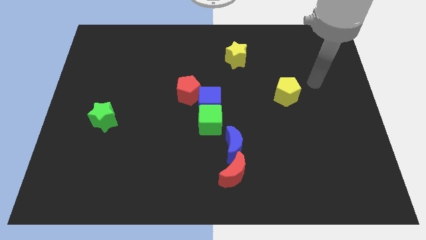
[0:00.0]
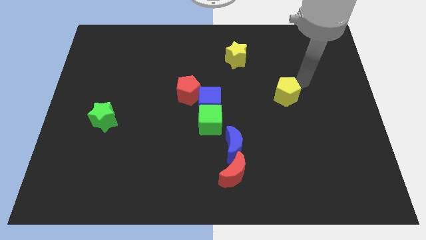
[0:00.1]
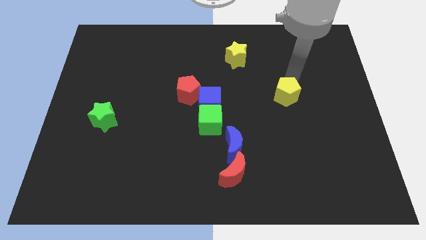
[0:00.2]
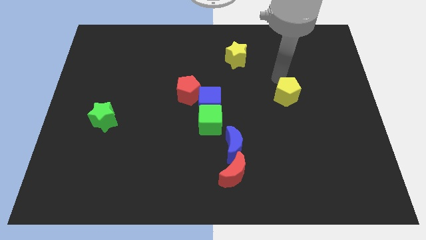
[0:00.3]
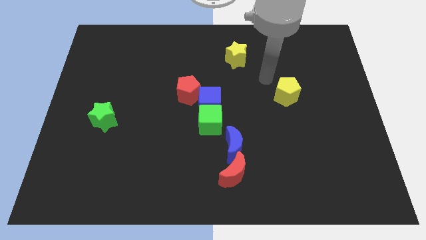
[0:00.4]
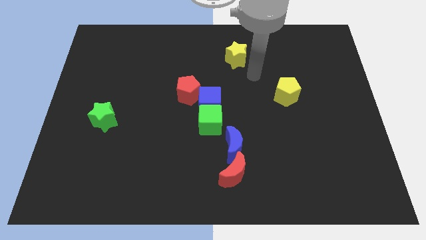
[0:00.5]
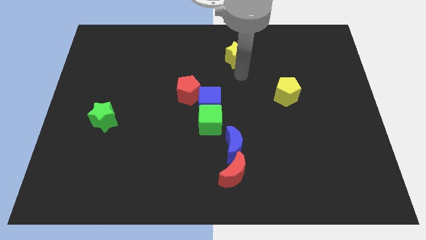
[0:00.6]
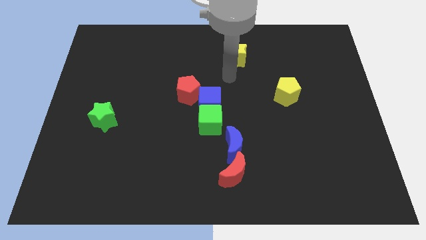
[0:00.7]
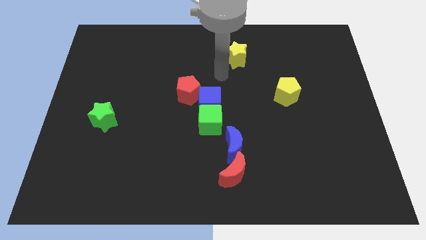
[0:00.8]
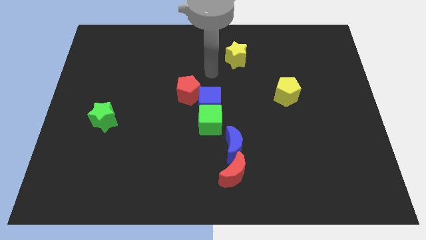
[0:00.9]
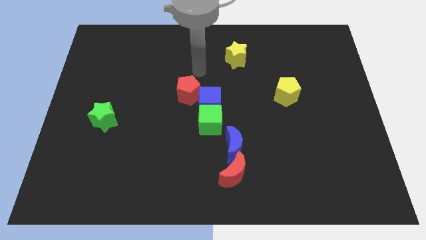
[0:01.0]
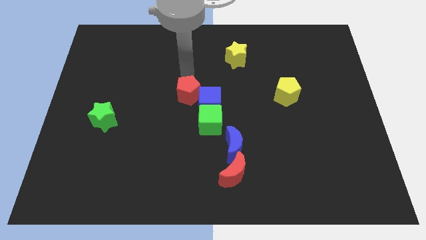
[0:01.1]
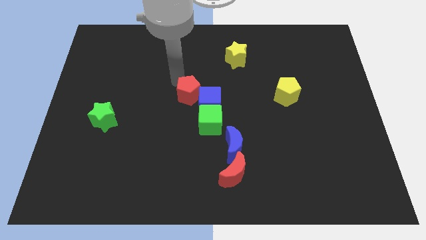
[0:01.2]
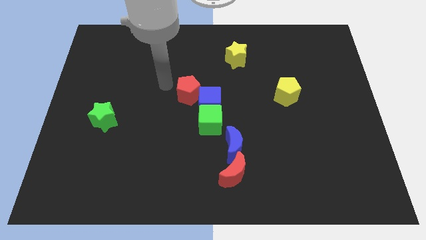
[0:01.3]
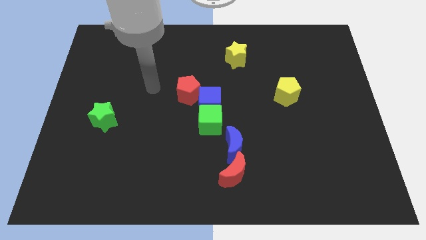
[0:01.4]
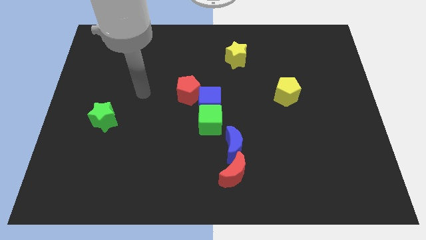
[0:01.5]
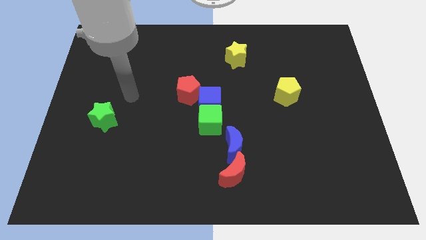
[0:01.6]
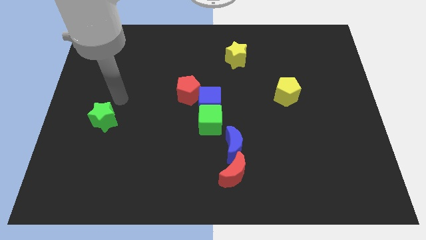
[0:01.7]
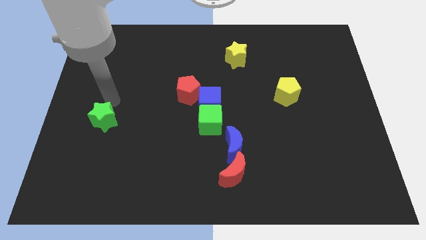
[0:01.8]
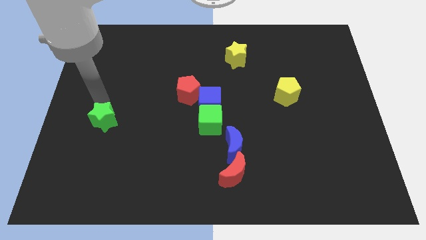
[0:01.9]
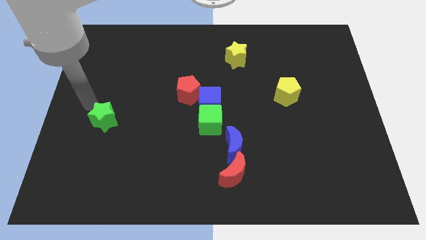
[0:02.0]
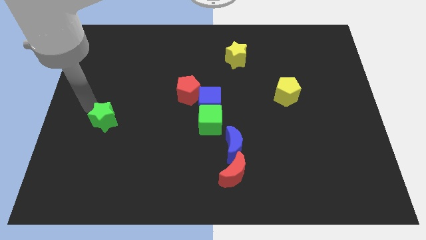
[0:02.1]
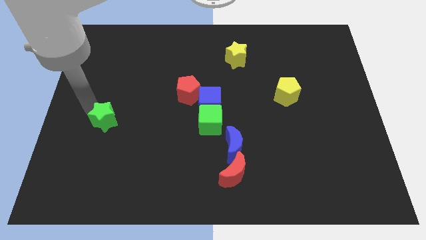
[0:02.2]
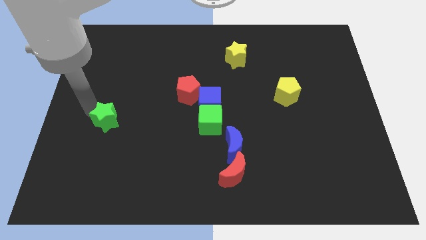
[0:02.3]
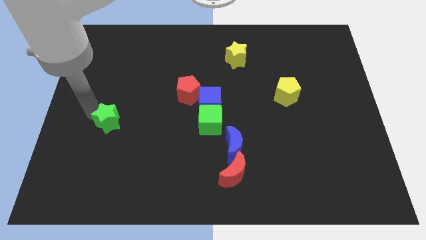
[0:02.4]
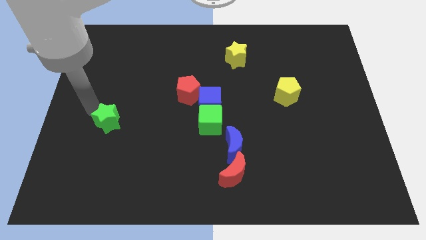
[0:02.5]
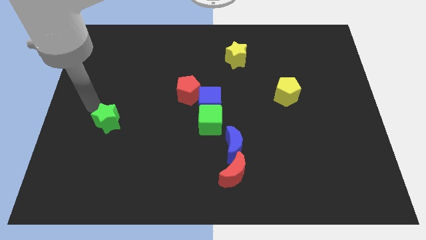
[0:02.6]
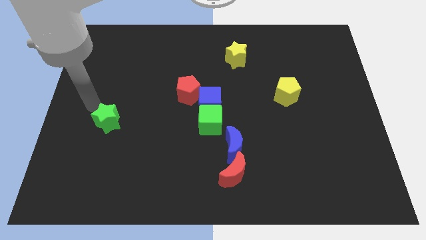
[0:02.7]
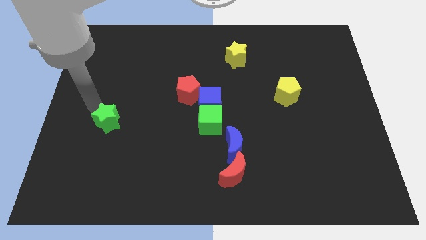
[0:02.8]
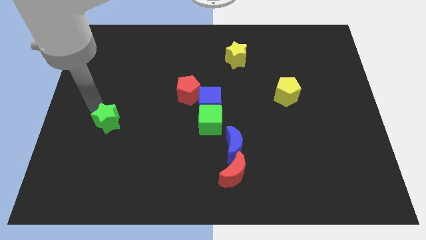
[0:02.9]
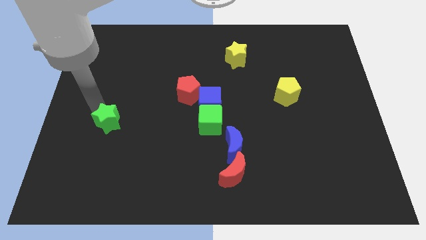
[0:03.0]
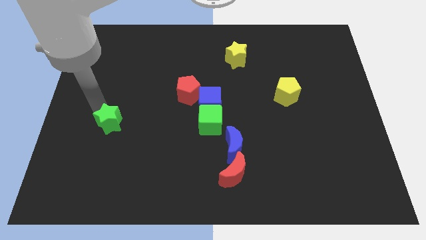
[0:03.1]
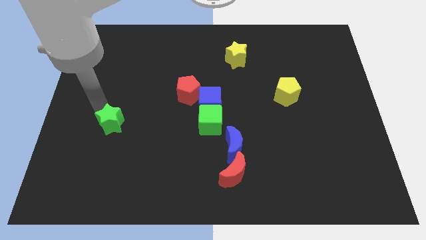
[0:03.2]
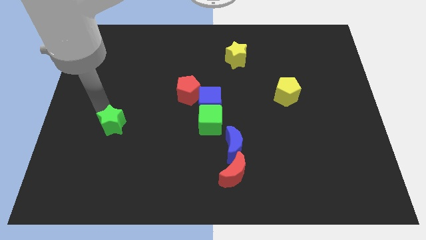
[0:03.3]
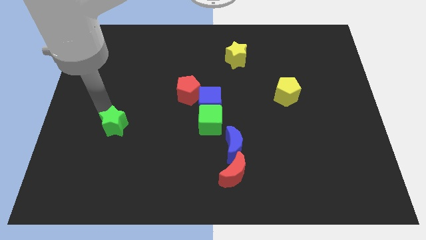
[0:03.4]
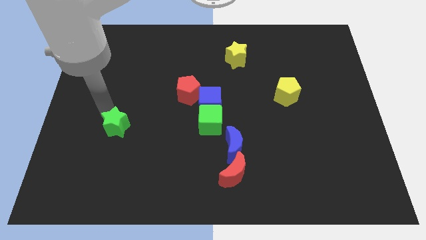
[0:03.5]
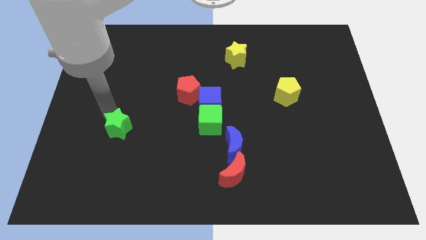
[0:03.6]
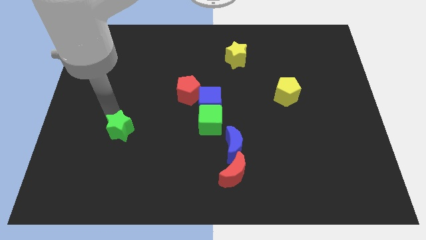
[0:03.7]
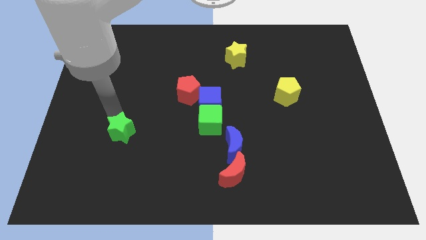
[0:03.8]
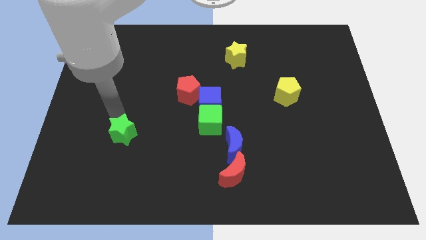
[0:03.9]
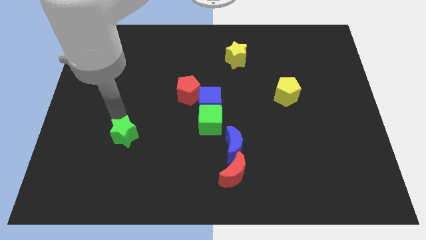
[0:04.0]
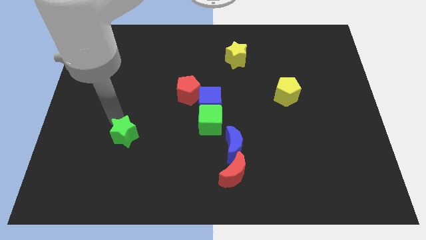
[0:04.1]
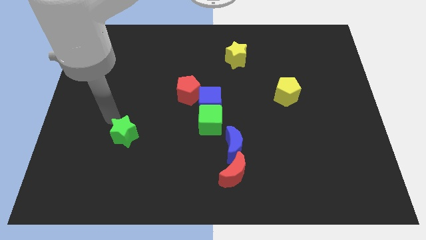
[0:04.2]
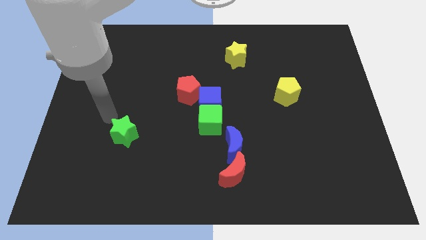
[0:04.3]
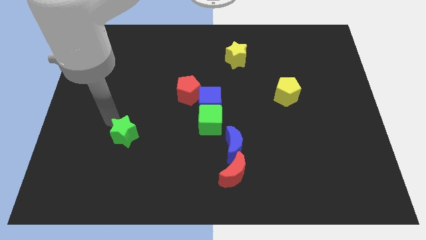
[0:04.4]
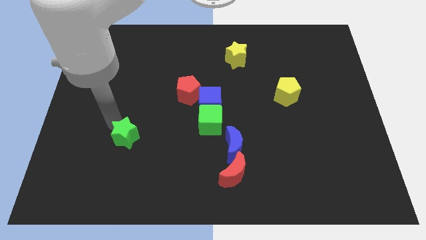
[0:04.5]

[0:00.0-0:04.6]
slide the green star downwards and then to the right a little bit

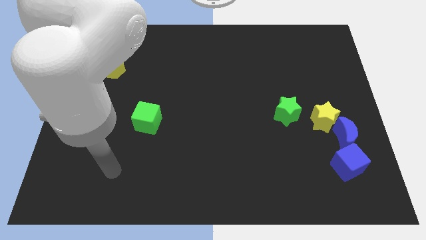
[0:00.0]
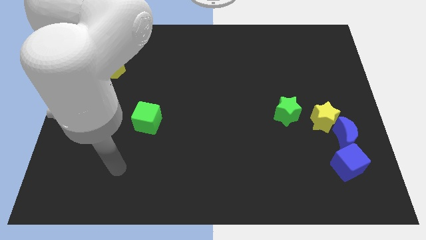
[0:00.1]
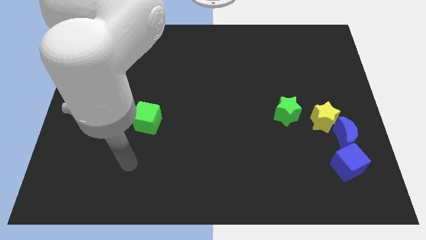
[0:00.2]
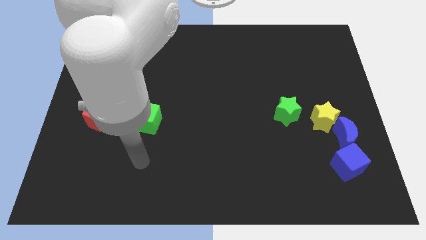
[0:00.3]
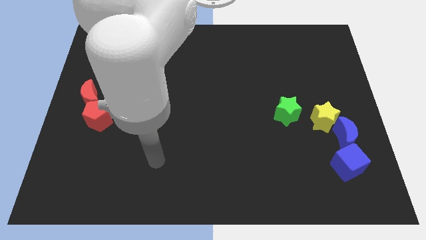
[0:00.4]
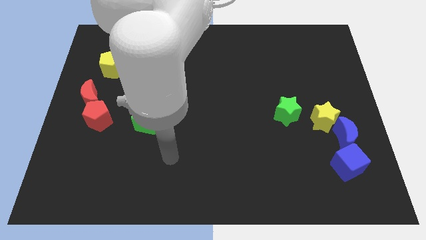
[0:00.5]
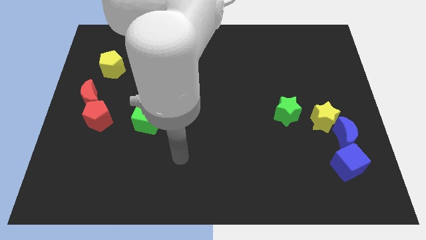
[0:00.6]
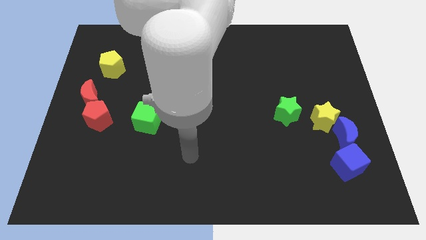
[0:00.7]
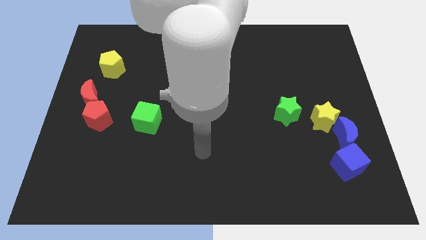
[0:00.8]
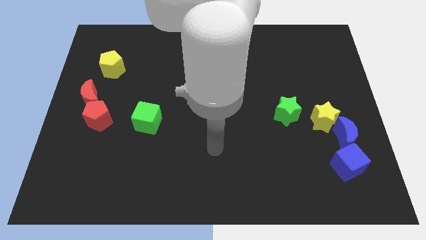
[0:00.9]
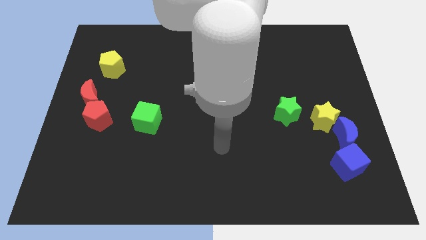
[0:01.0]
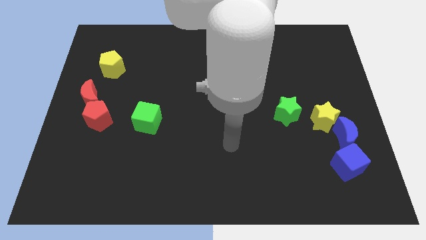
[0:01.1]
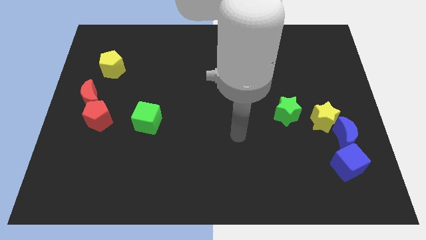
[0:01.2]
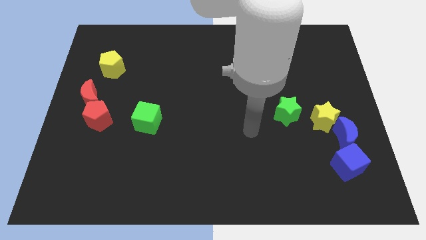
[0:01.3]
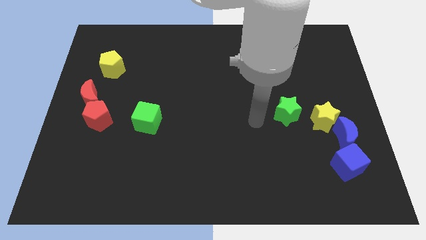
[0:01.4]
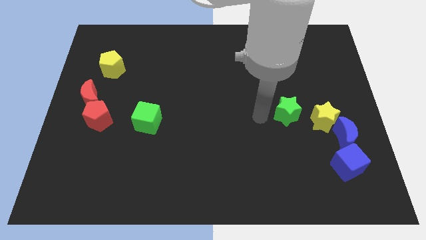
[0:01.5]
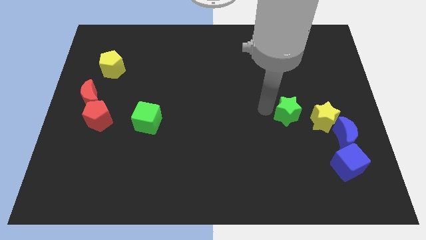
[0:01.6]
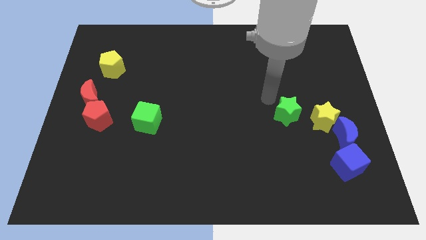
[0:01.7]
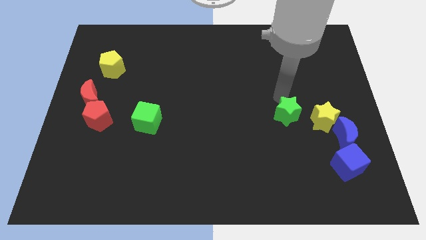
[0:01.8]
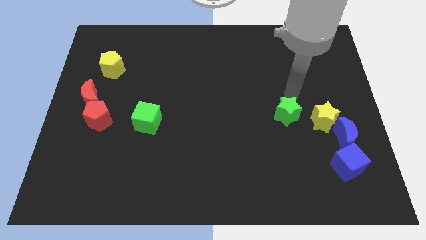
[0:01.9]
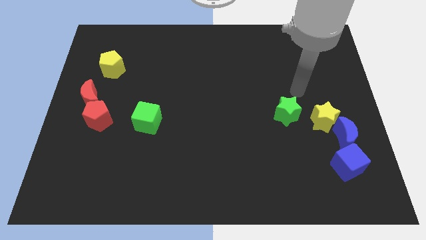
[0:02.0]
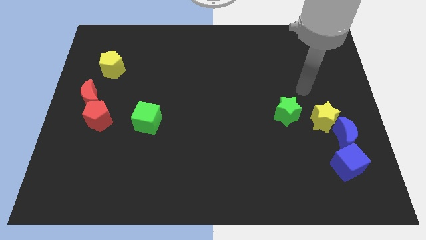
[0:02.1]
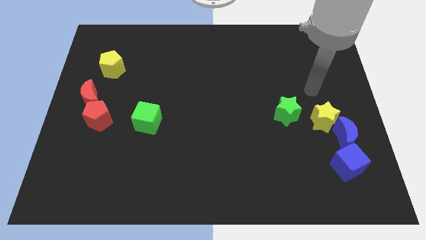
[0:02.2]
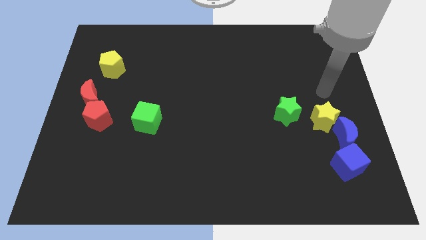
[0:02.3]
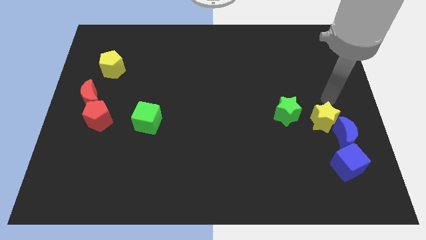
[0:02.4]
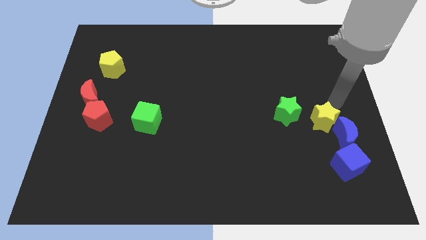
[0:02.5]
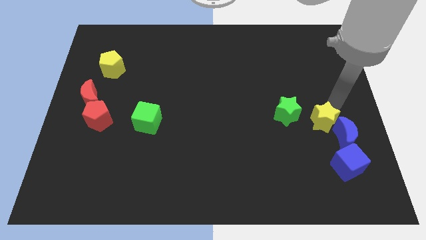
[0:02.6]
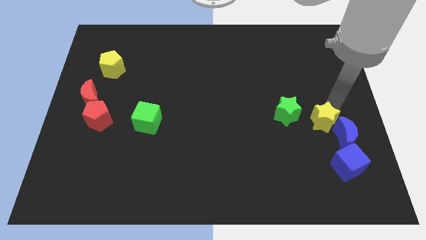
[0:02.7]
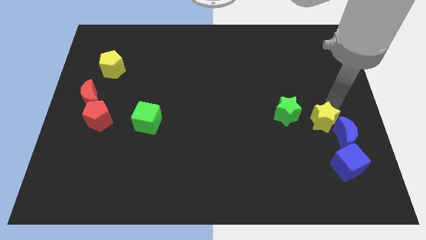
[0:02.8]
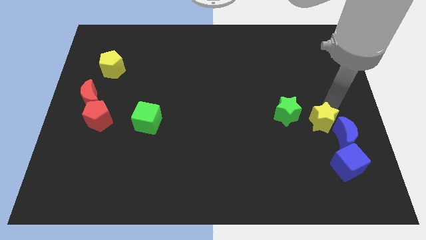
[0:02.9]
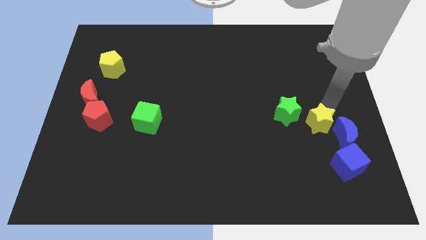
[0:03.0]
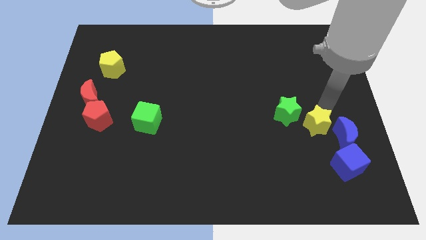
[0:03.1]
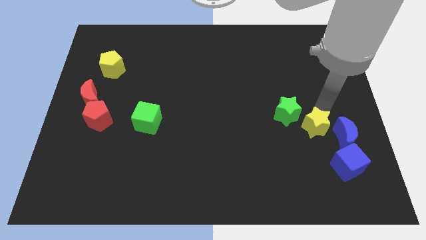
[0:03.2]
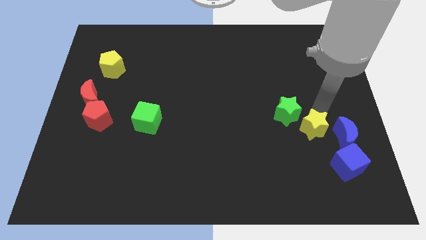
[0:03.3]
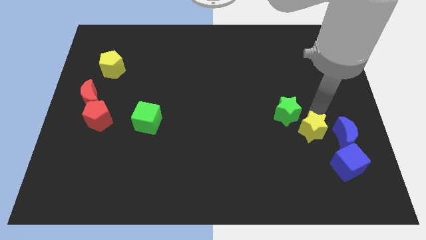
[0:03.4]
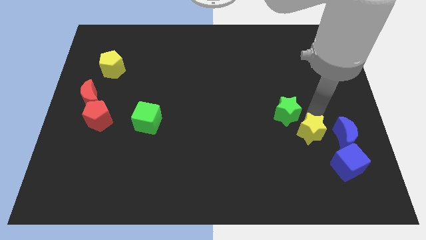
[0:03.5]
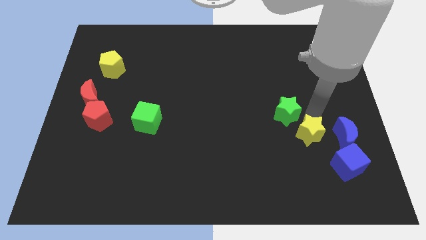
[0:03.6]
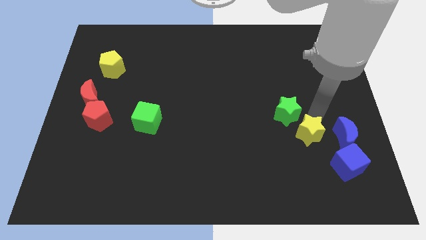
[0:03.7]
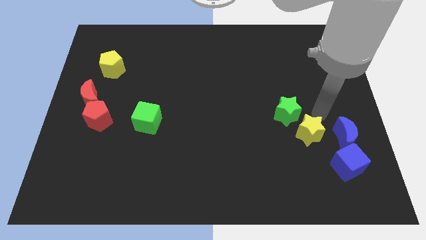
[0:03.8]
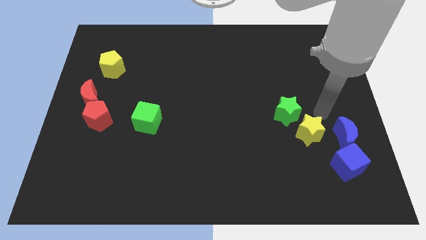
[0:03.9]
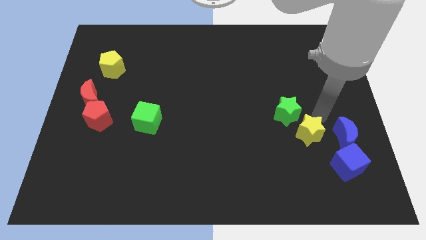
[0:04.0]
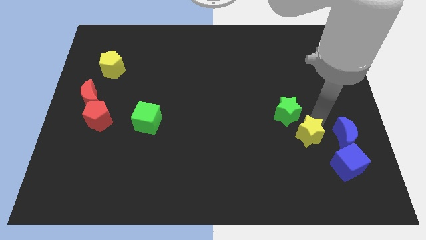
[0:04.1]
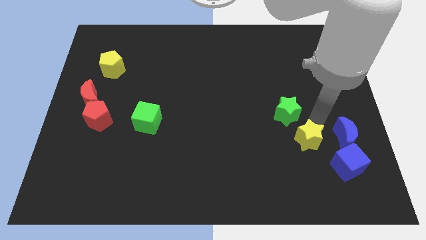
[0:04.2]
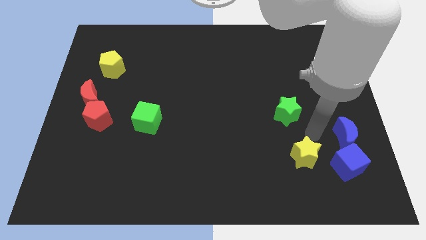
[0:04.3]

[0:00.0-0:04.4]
slide the yellow star a little downwards and then to the left
